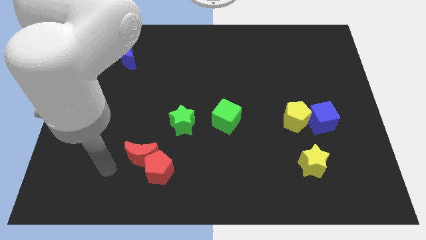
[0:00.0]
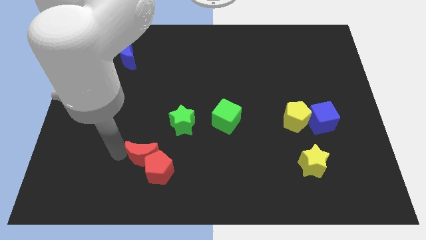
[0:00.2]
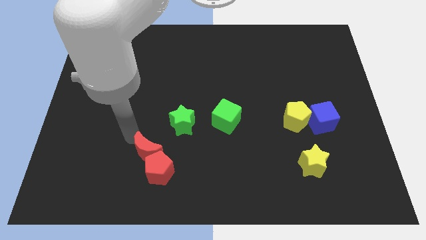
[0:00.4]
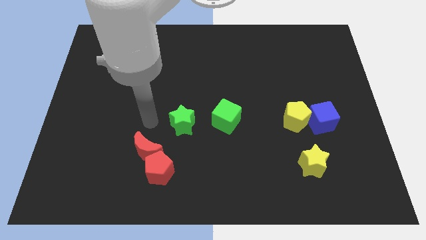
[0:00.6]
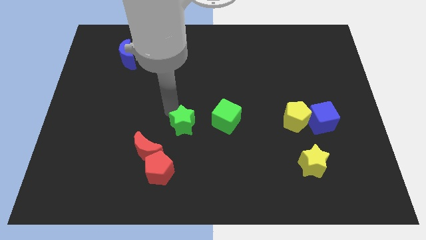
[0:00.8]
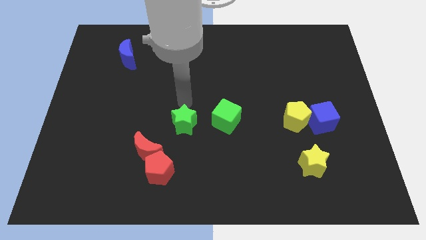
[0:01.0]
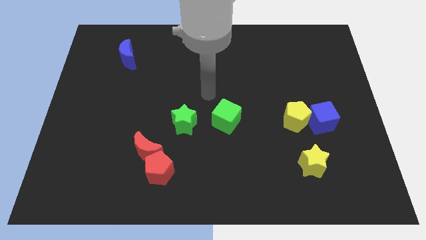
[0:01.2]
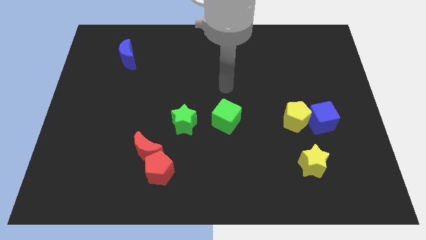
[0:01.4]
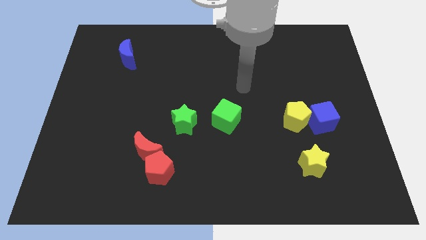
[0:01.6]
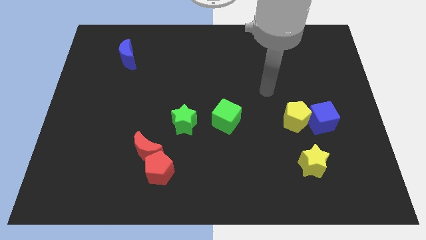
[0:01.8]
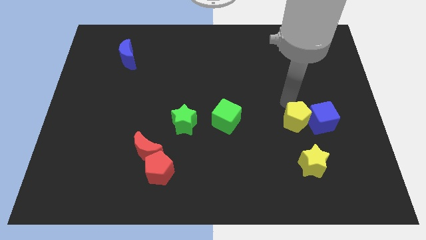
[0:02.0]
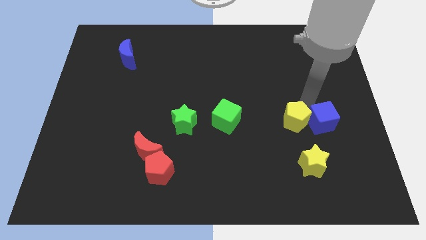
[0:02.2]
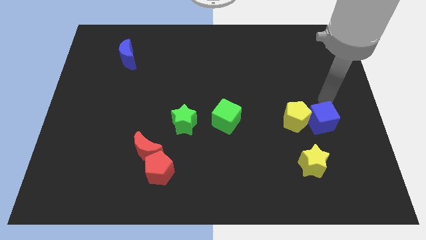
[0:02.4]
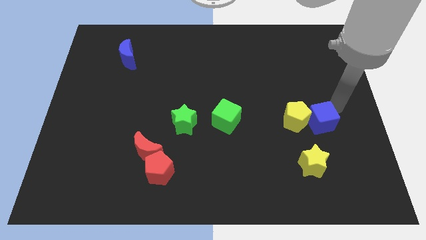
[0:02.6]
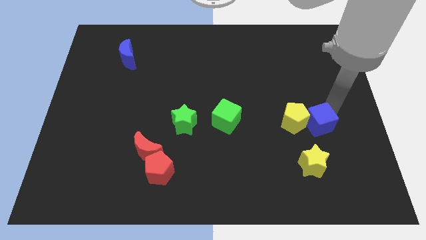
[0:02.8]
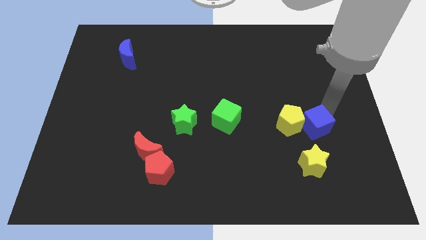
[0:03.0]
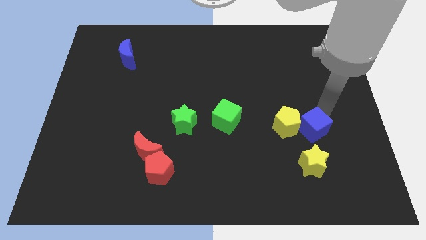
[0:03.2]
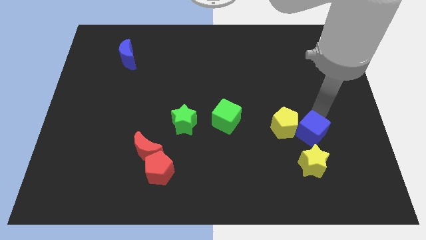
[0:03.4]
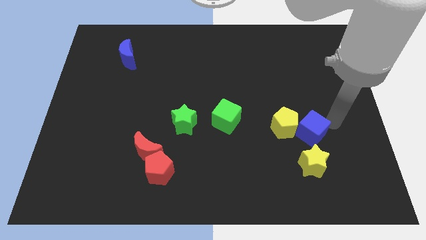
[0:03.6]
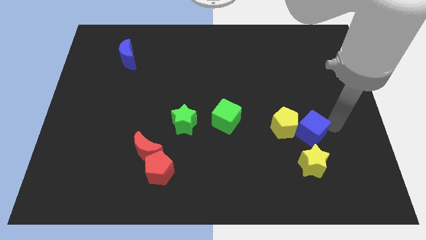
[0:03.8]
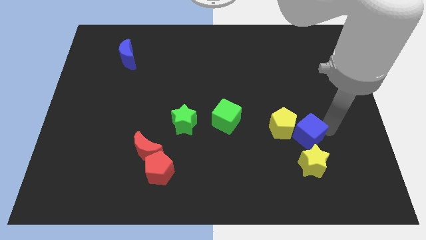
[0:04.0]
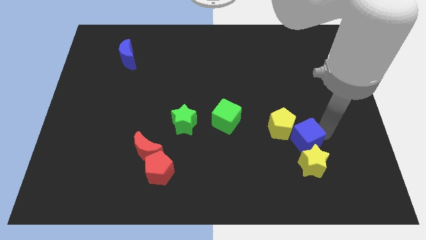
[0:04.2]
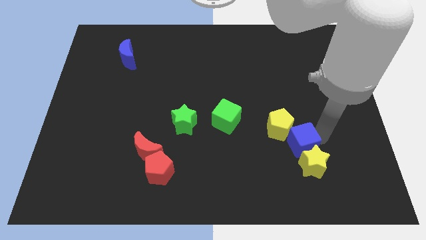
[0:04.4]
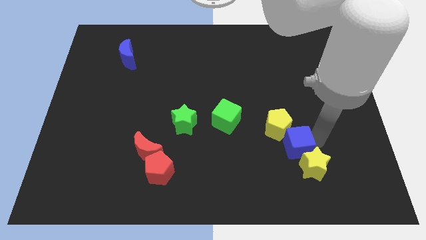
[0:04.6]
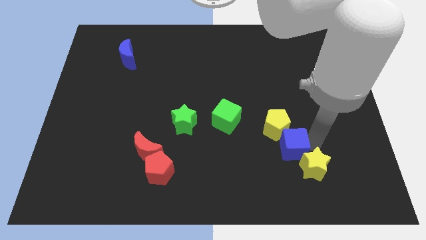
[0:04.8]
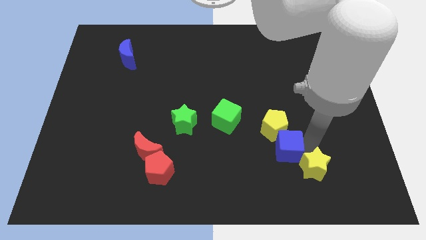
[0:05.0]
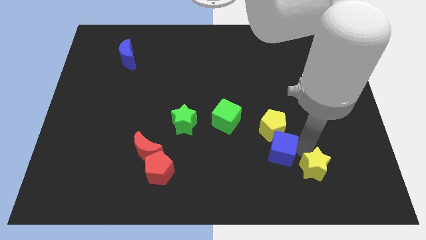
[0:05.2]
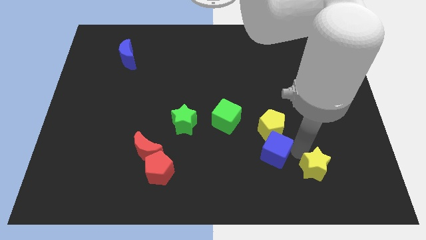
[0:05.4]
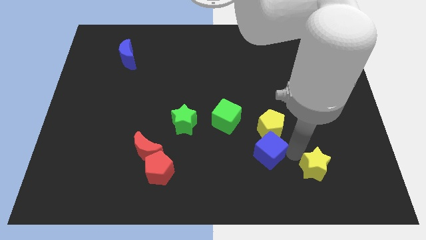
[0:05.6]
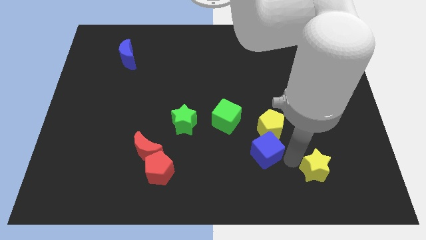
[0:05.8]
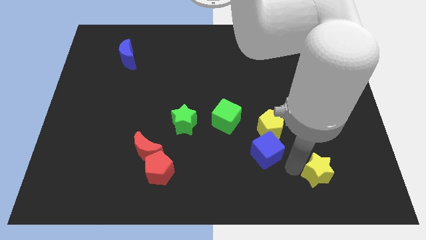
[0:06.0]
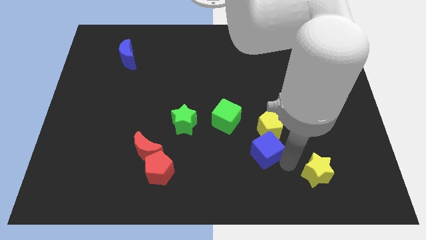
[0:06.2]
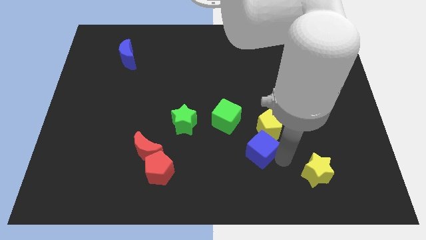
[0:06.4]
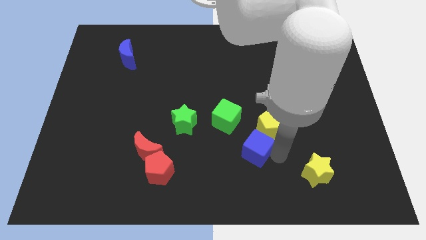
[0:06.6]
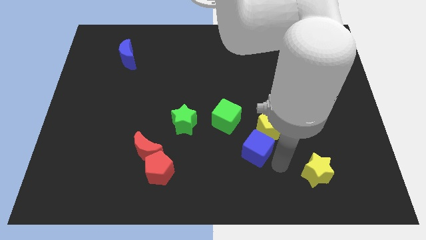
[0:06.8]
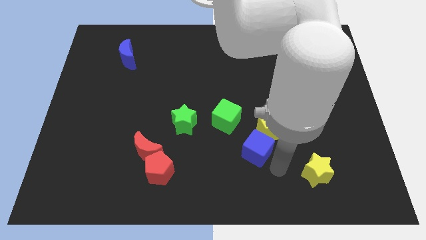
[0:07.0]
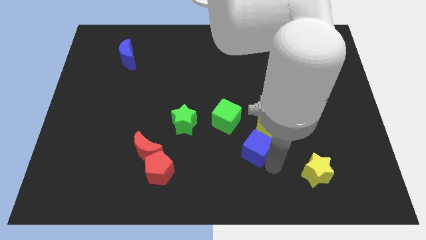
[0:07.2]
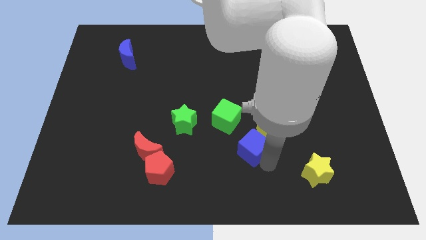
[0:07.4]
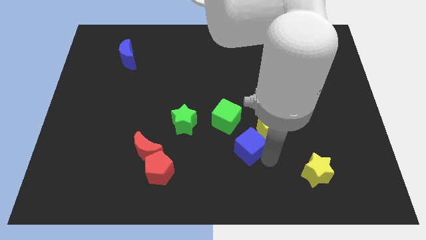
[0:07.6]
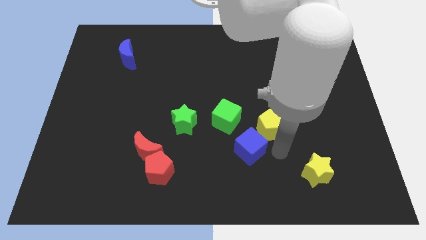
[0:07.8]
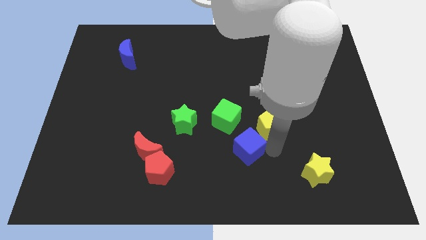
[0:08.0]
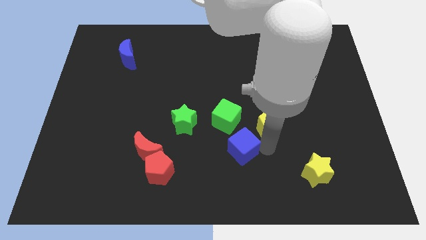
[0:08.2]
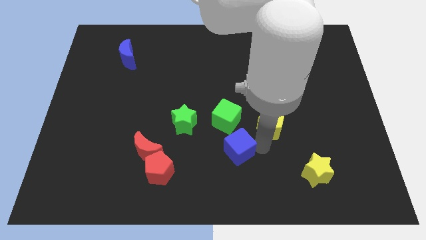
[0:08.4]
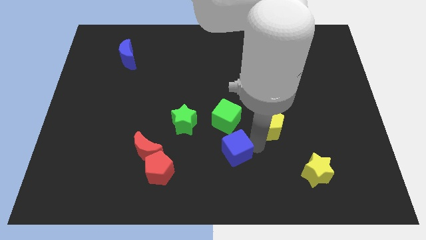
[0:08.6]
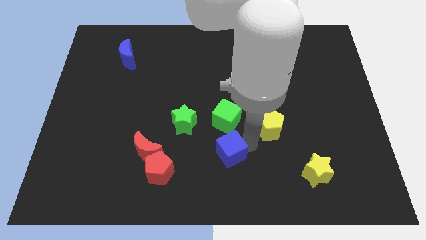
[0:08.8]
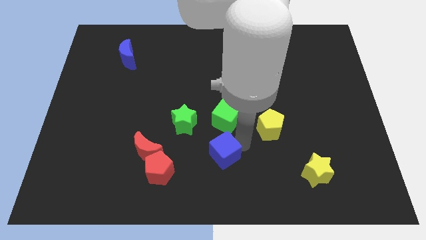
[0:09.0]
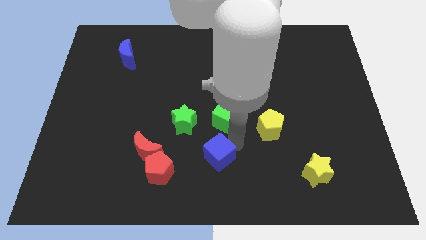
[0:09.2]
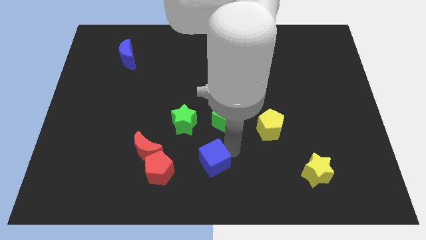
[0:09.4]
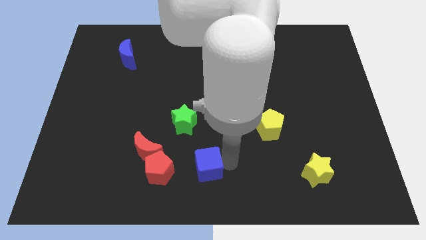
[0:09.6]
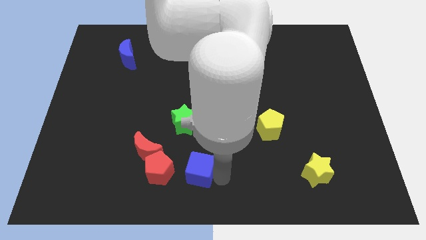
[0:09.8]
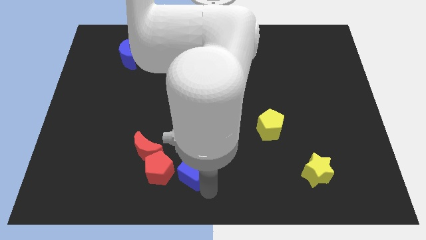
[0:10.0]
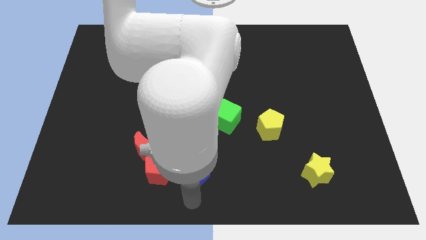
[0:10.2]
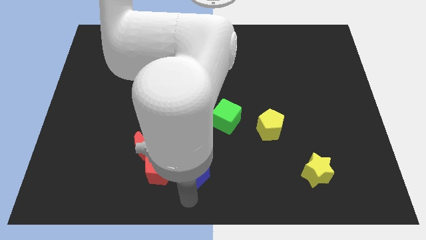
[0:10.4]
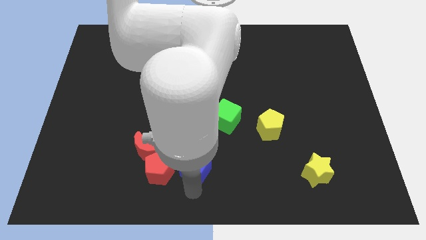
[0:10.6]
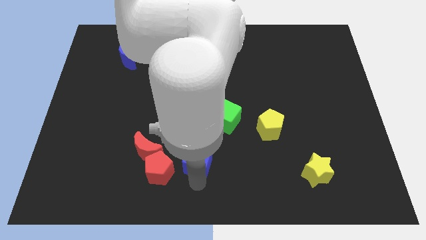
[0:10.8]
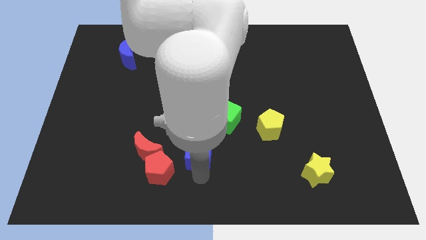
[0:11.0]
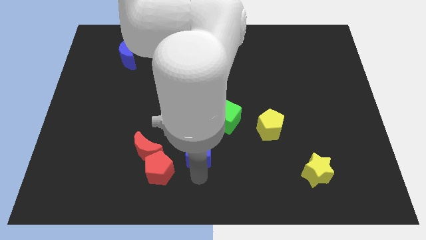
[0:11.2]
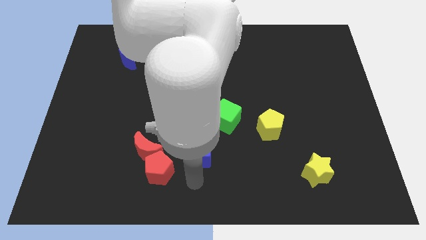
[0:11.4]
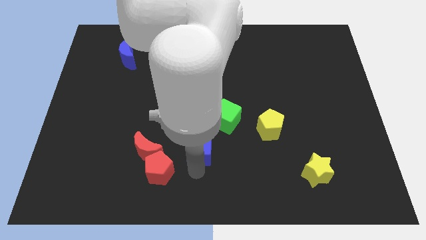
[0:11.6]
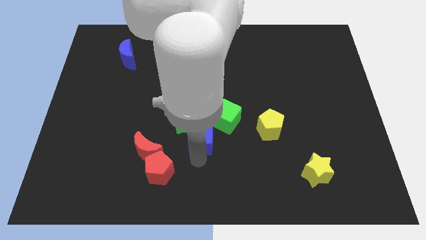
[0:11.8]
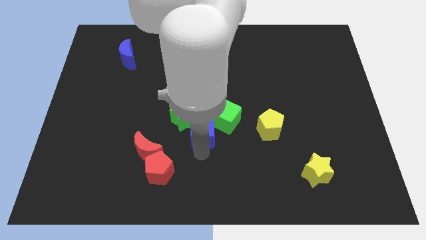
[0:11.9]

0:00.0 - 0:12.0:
slide the blue cube towards the green star

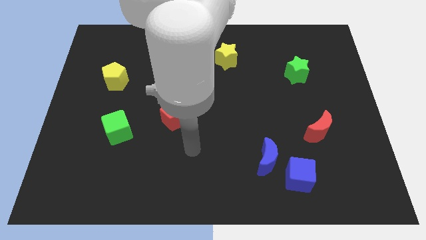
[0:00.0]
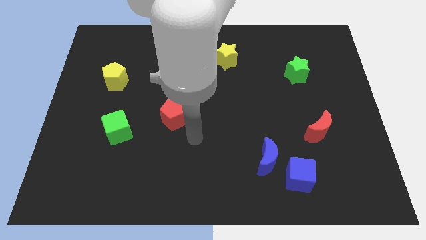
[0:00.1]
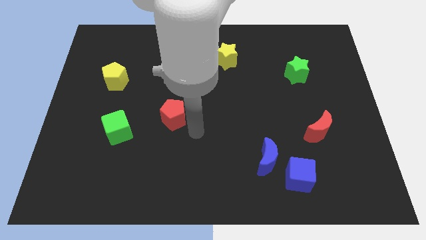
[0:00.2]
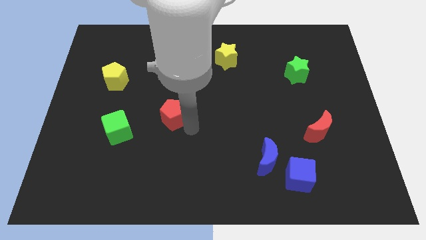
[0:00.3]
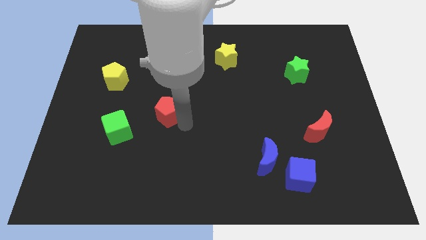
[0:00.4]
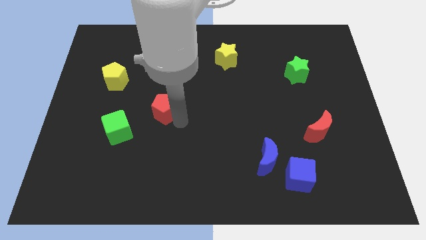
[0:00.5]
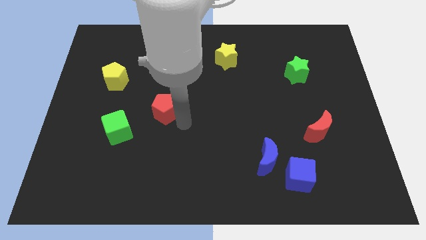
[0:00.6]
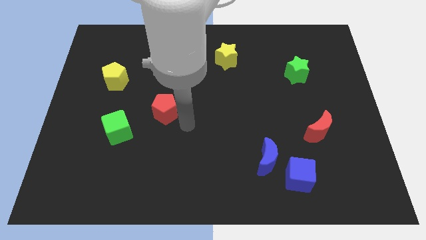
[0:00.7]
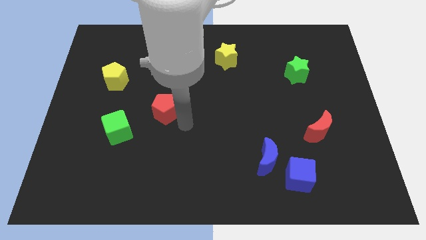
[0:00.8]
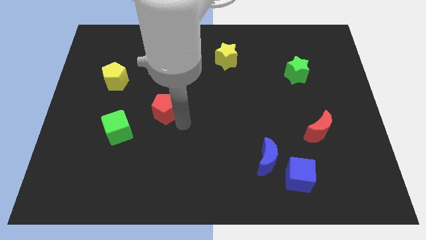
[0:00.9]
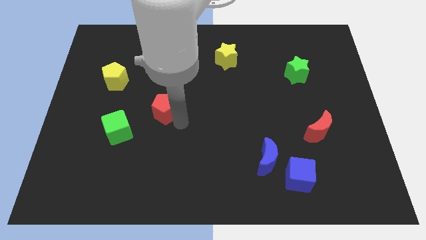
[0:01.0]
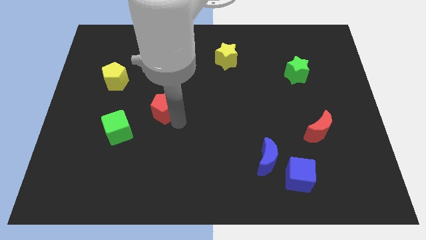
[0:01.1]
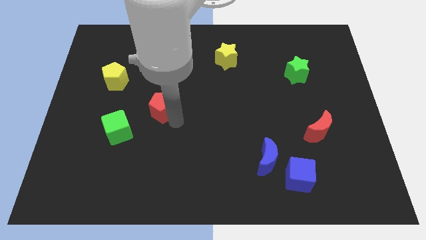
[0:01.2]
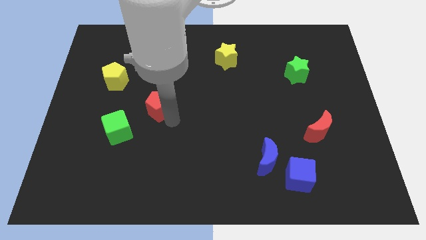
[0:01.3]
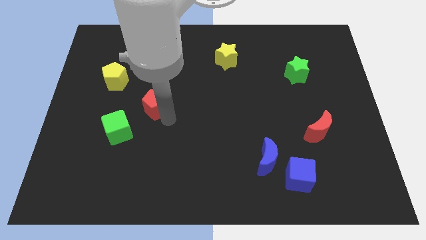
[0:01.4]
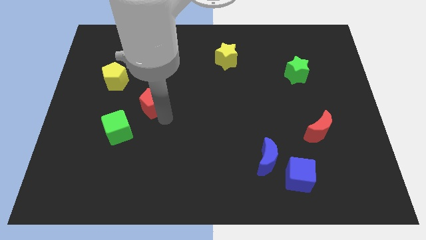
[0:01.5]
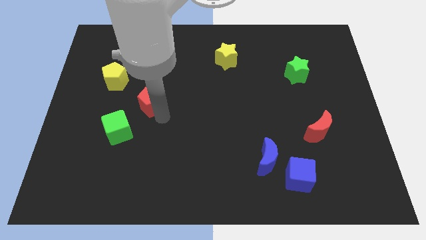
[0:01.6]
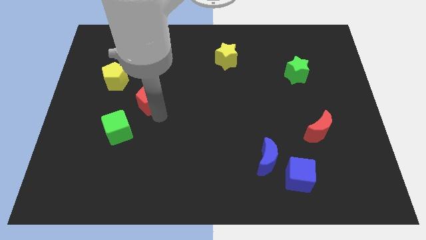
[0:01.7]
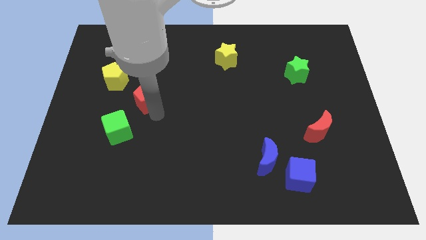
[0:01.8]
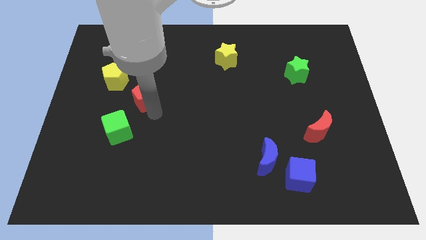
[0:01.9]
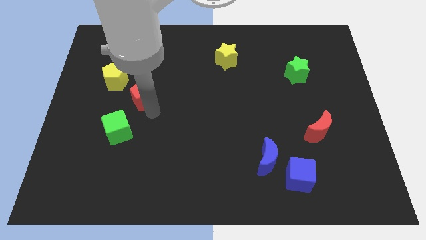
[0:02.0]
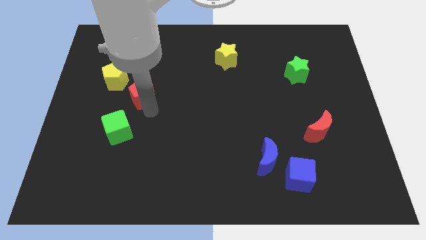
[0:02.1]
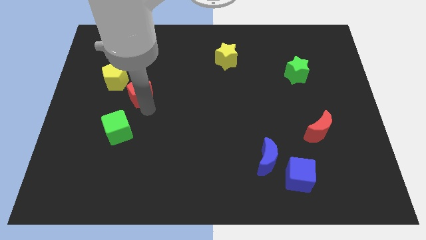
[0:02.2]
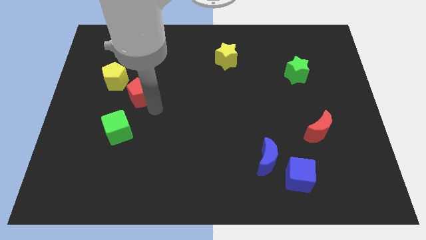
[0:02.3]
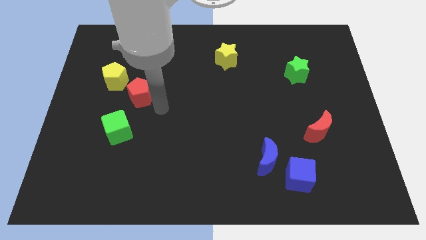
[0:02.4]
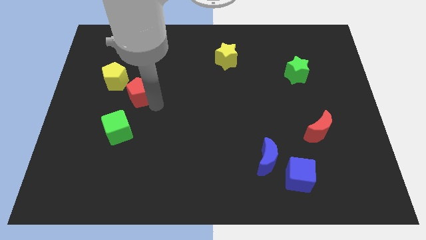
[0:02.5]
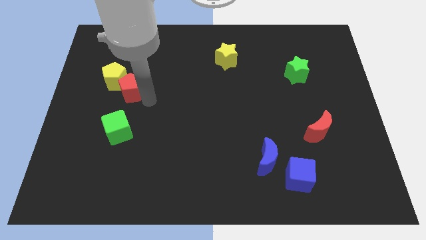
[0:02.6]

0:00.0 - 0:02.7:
move the red pentagon close to the yellow pentagon
